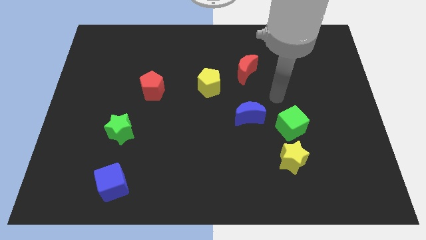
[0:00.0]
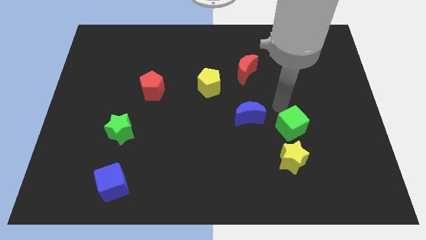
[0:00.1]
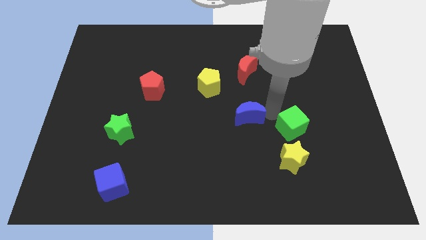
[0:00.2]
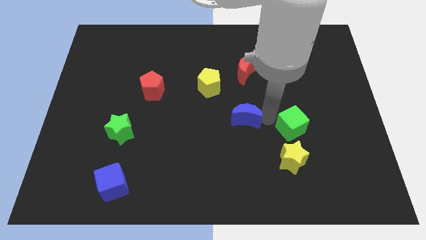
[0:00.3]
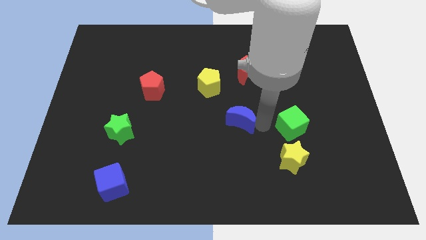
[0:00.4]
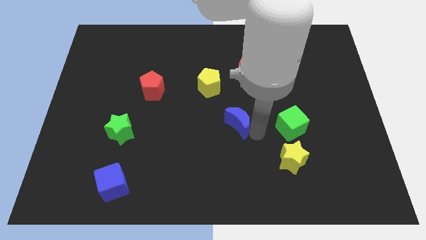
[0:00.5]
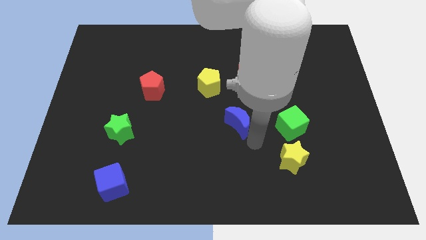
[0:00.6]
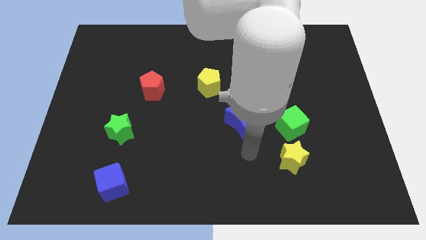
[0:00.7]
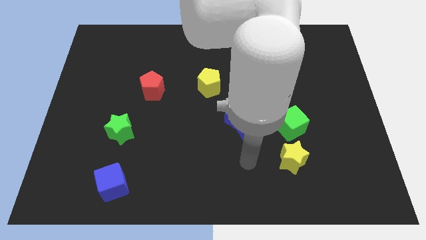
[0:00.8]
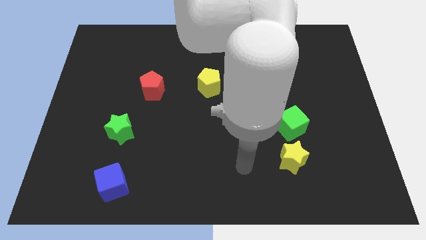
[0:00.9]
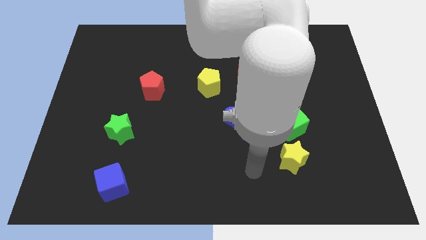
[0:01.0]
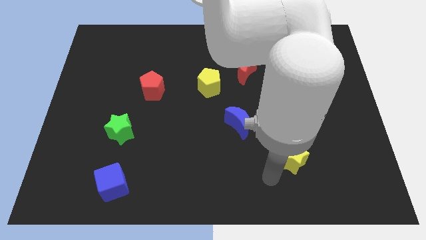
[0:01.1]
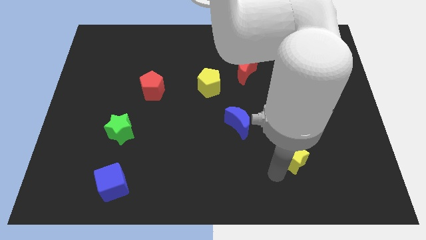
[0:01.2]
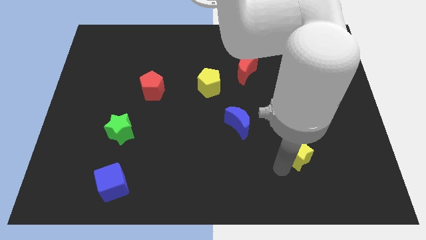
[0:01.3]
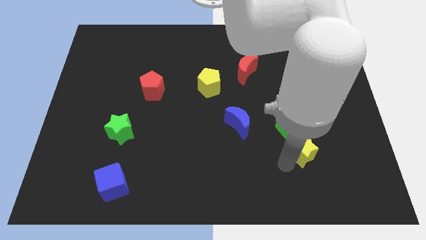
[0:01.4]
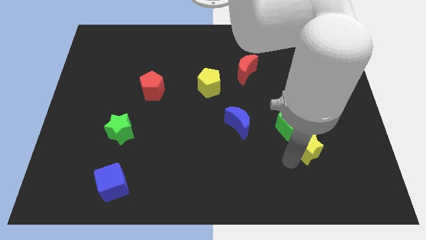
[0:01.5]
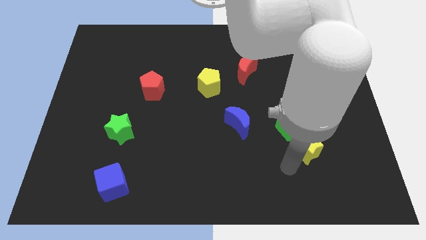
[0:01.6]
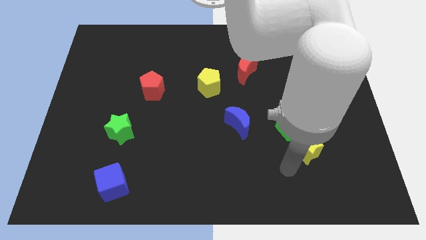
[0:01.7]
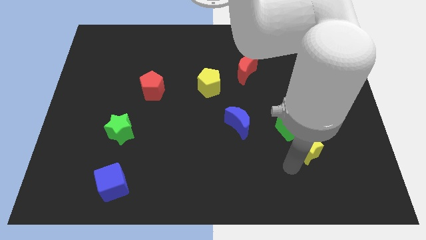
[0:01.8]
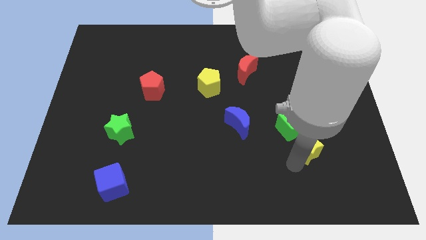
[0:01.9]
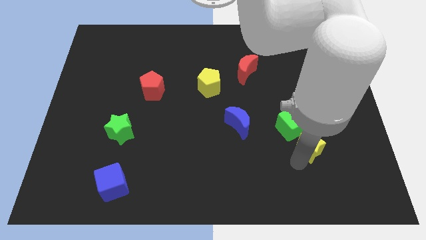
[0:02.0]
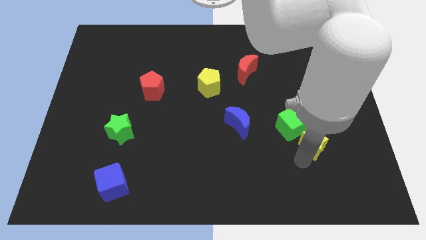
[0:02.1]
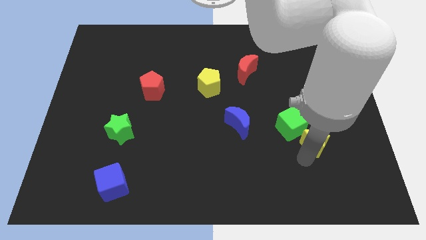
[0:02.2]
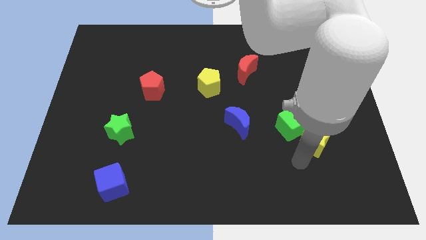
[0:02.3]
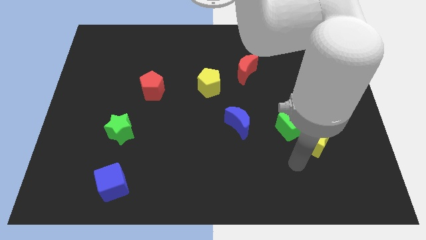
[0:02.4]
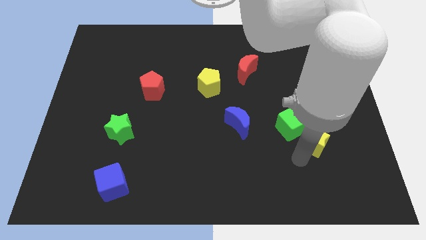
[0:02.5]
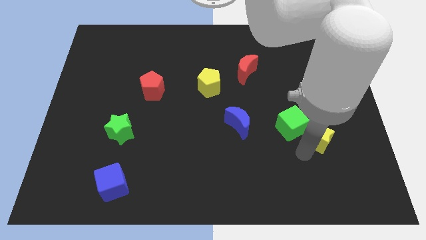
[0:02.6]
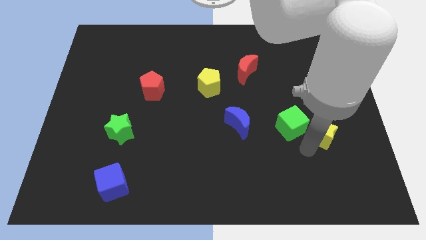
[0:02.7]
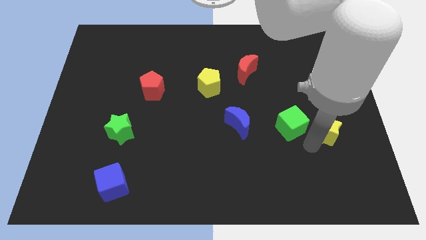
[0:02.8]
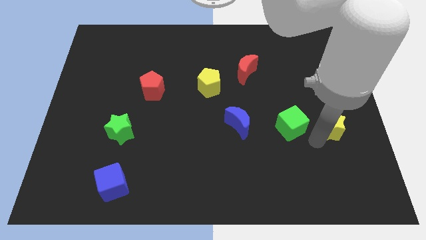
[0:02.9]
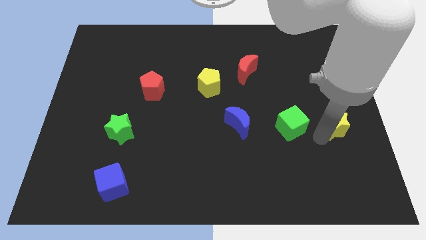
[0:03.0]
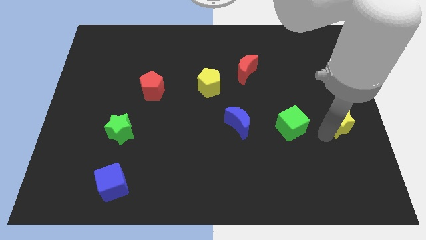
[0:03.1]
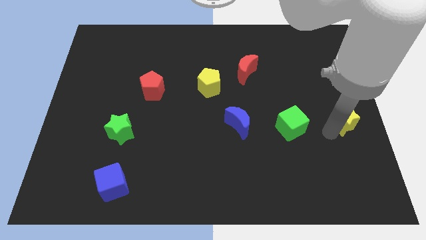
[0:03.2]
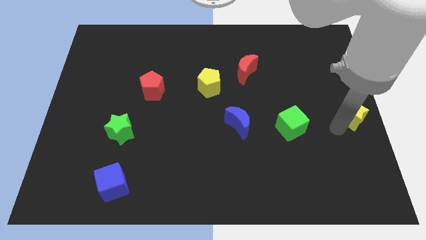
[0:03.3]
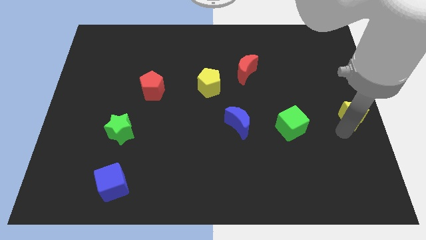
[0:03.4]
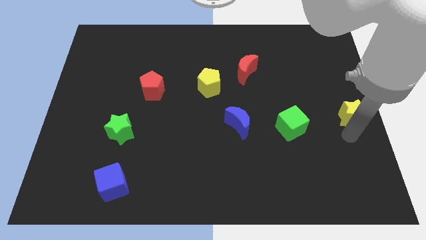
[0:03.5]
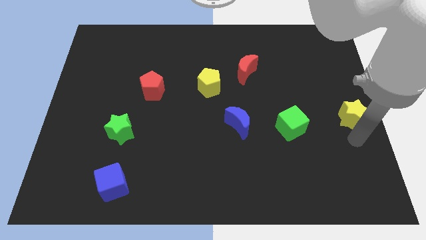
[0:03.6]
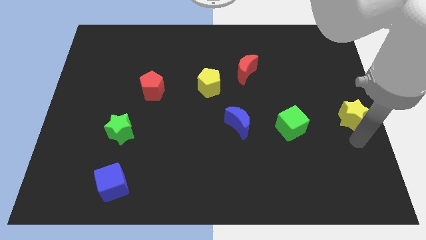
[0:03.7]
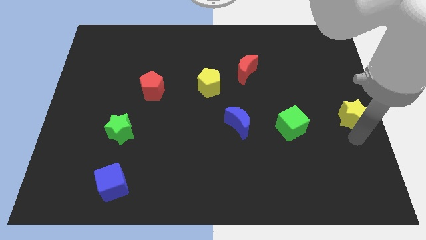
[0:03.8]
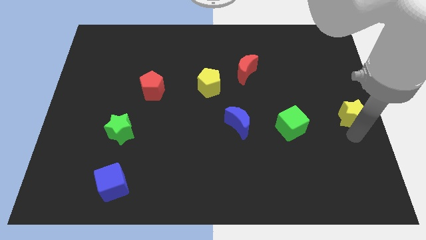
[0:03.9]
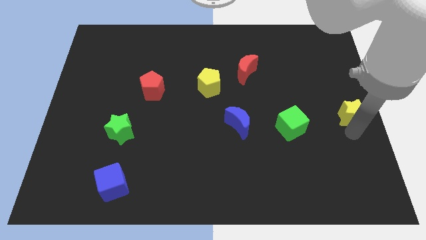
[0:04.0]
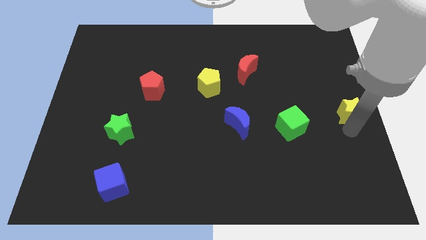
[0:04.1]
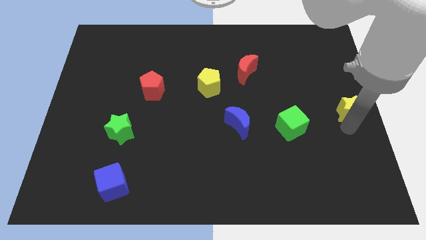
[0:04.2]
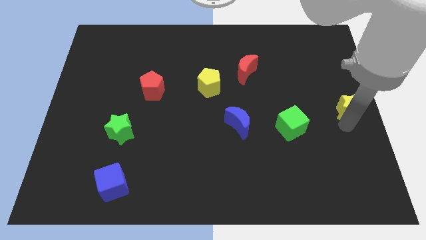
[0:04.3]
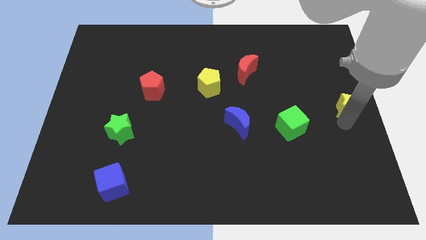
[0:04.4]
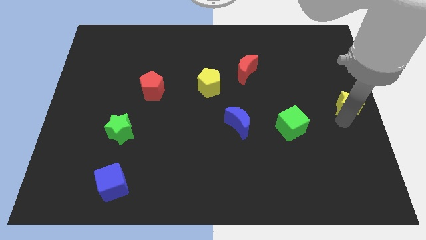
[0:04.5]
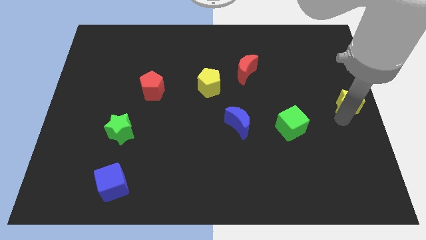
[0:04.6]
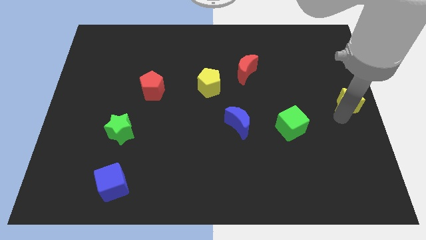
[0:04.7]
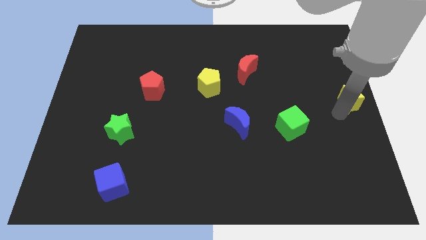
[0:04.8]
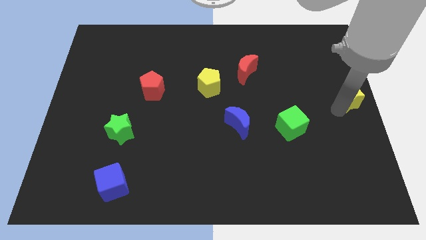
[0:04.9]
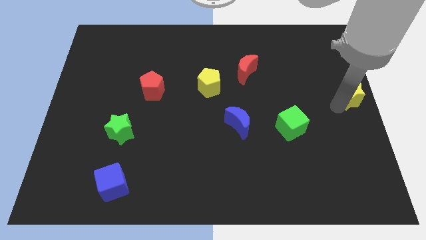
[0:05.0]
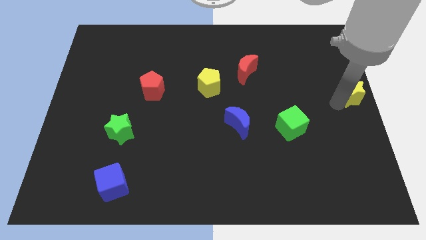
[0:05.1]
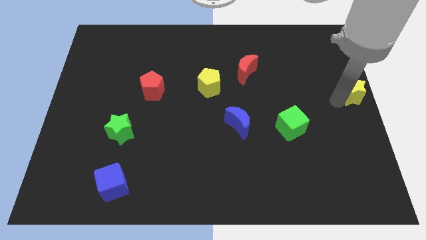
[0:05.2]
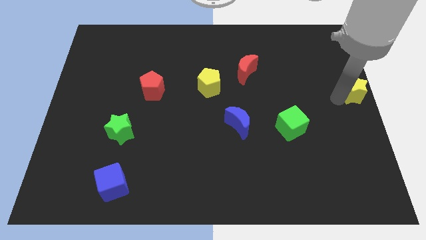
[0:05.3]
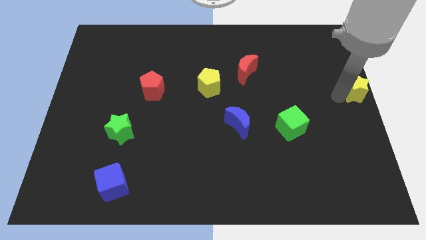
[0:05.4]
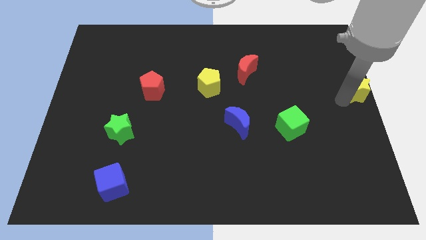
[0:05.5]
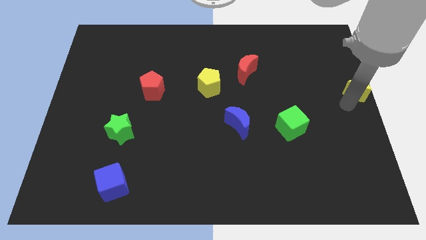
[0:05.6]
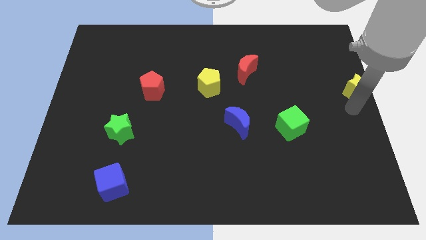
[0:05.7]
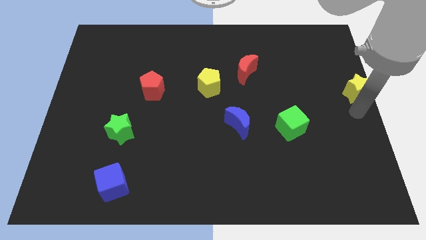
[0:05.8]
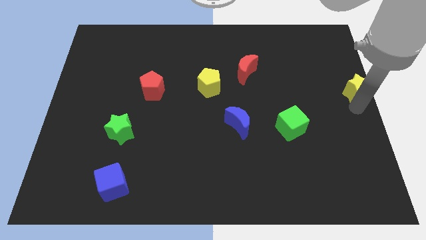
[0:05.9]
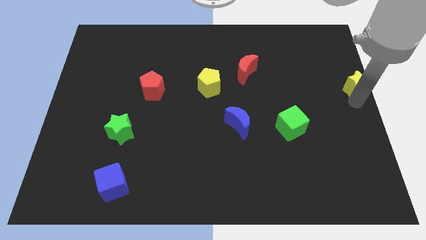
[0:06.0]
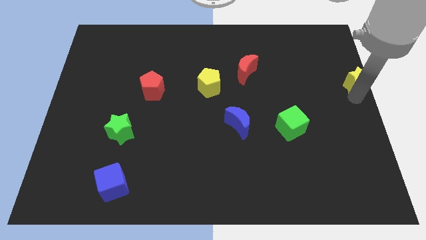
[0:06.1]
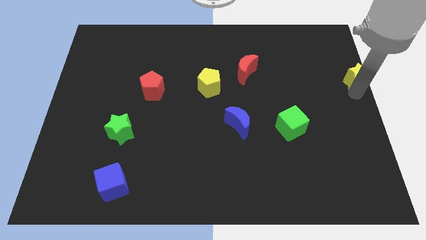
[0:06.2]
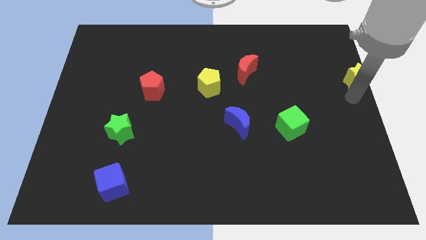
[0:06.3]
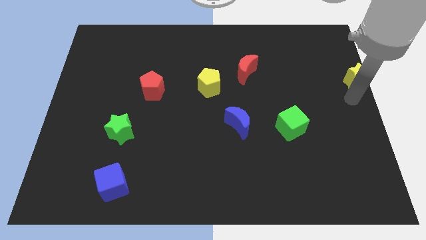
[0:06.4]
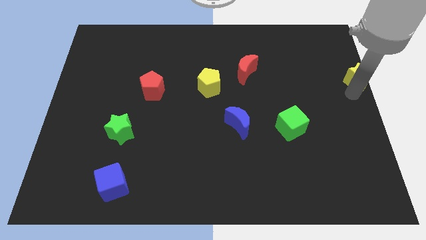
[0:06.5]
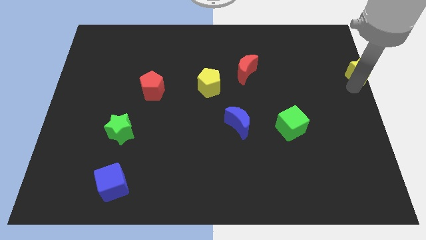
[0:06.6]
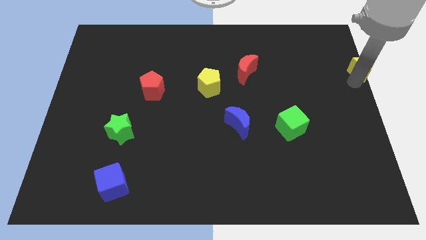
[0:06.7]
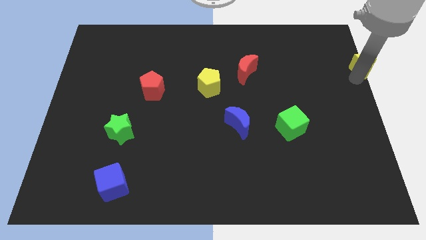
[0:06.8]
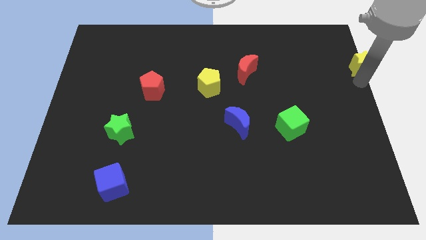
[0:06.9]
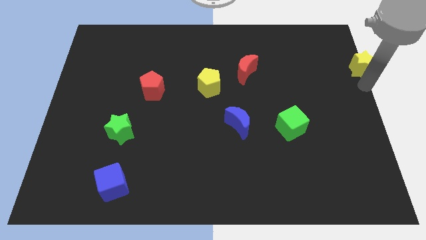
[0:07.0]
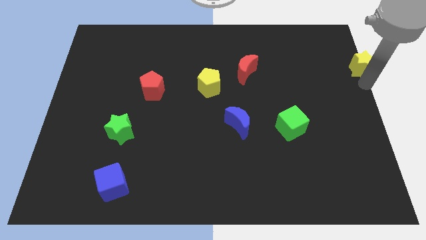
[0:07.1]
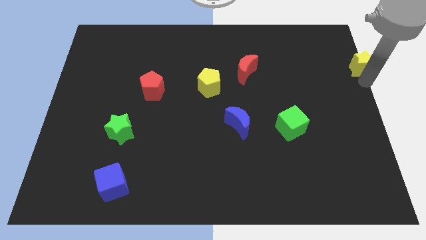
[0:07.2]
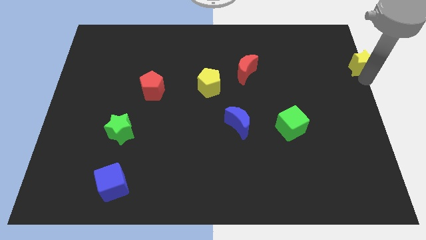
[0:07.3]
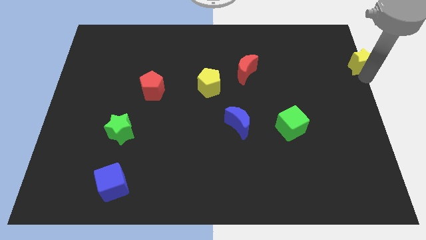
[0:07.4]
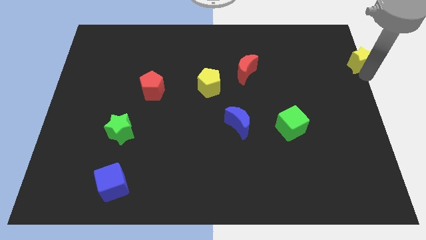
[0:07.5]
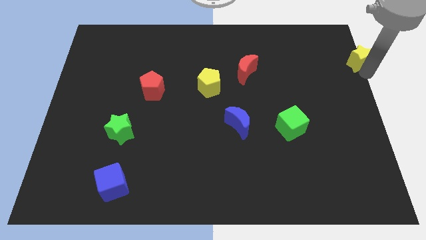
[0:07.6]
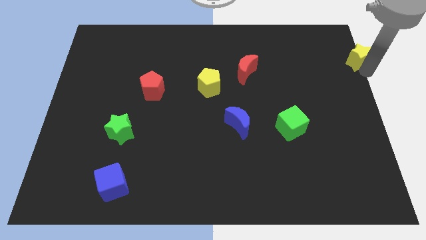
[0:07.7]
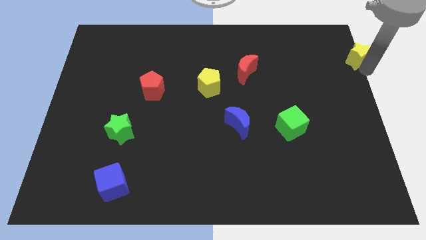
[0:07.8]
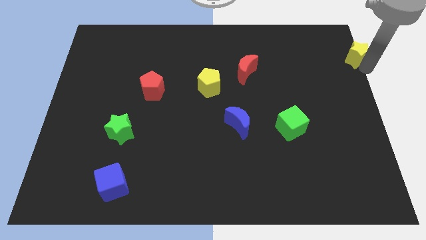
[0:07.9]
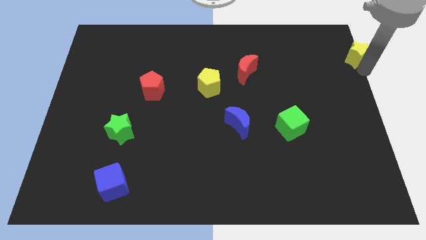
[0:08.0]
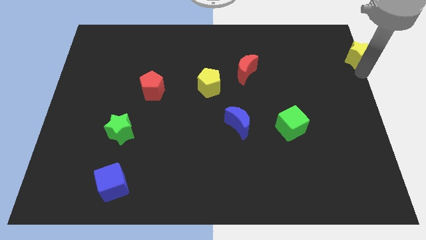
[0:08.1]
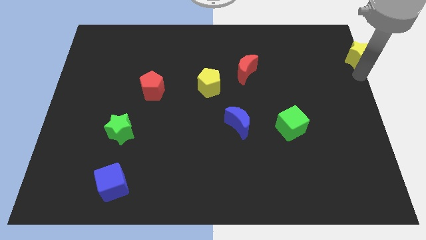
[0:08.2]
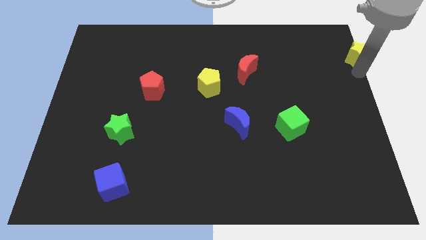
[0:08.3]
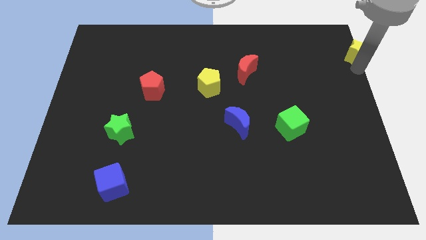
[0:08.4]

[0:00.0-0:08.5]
push the yellow star to the top right of the board
